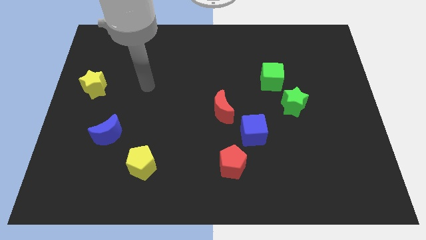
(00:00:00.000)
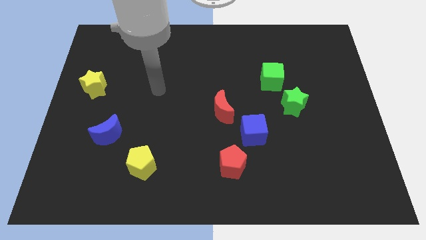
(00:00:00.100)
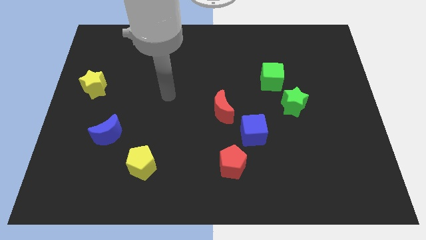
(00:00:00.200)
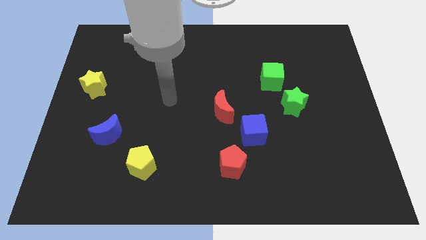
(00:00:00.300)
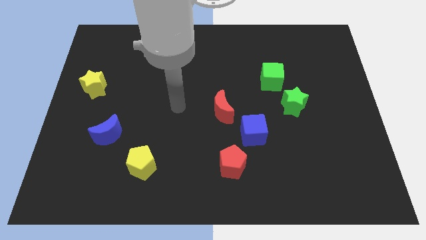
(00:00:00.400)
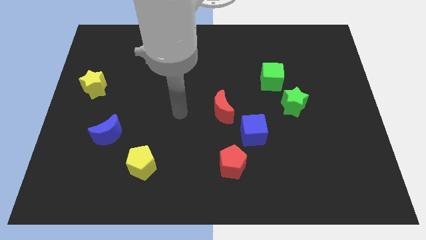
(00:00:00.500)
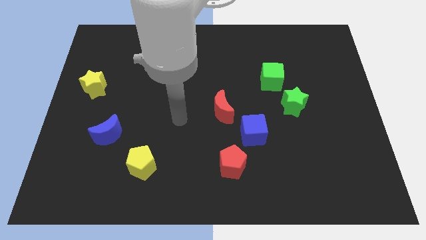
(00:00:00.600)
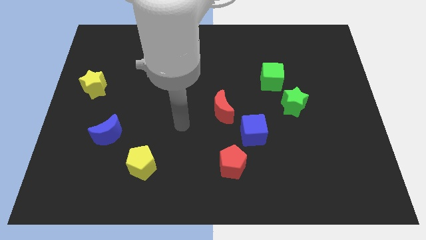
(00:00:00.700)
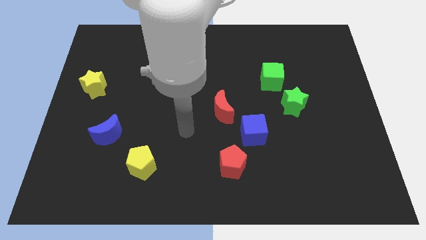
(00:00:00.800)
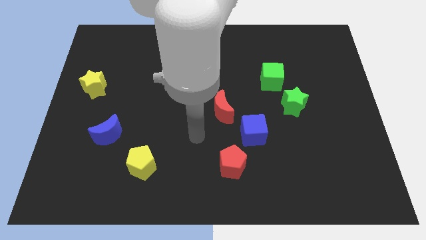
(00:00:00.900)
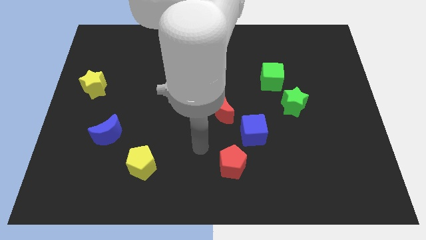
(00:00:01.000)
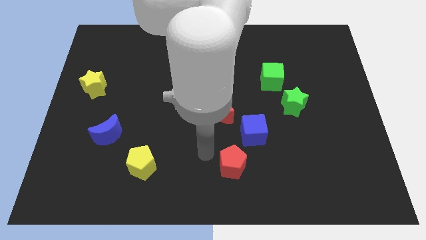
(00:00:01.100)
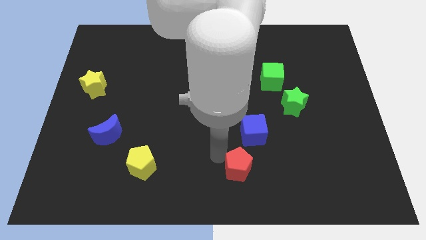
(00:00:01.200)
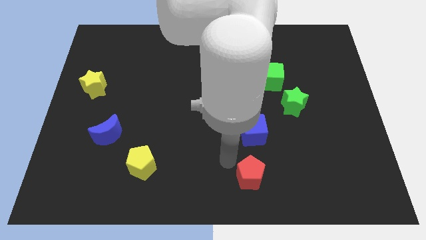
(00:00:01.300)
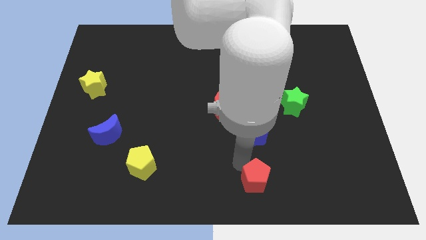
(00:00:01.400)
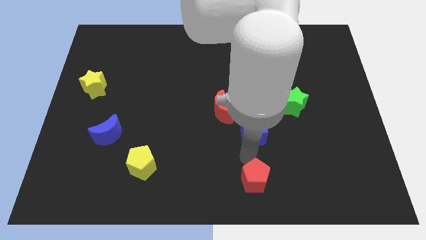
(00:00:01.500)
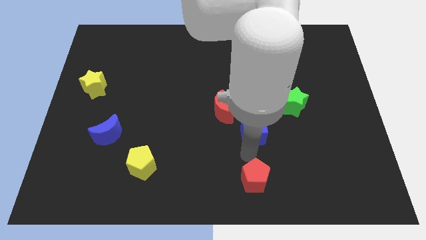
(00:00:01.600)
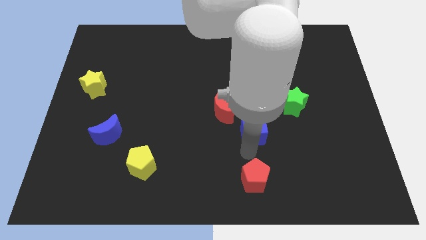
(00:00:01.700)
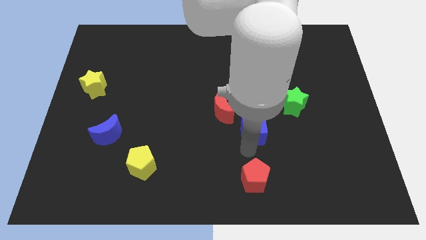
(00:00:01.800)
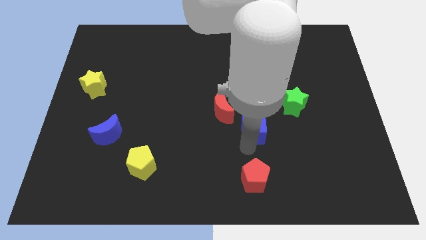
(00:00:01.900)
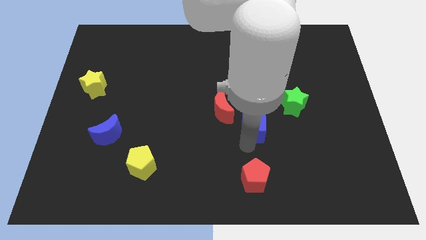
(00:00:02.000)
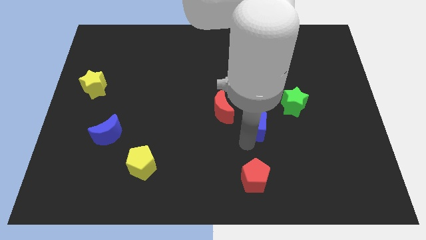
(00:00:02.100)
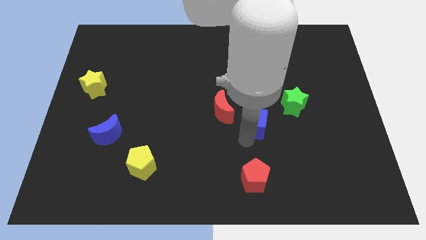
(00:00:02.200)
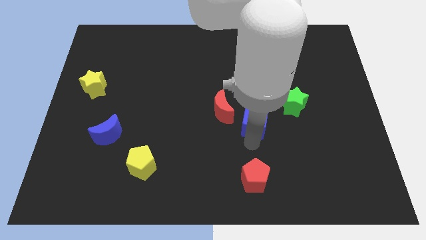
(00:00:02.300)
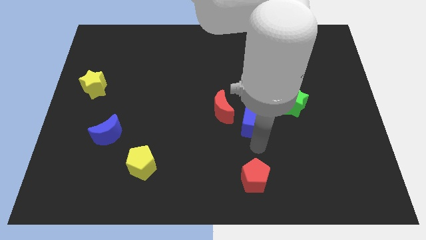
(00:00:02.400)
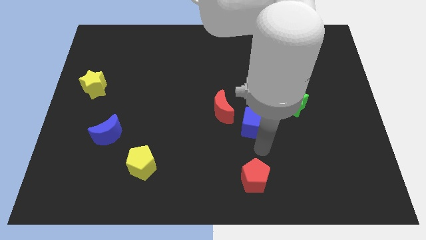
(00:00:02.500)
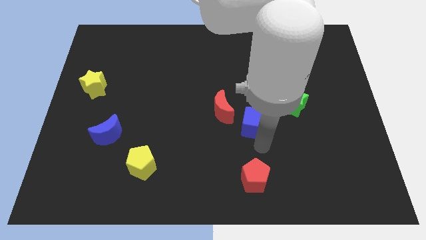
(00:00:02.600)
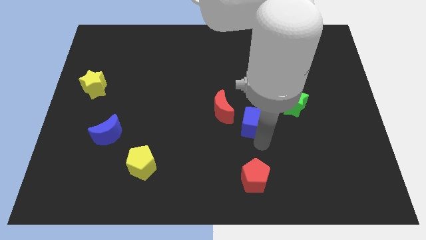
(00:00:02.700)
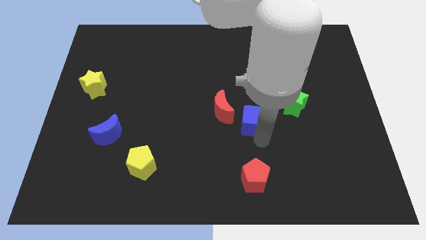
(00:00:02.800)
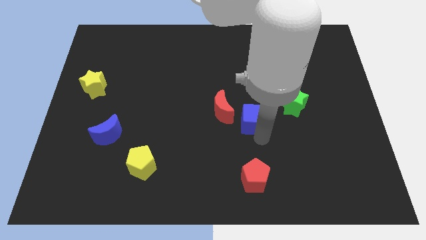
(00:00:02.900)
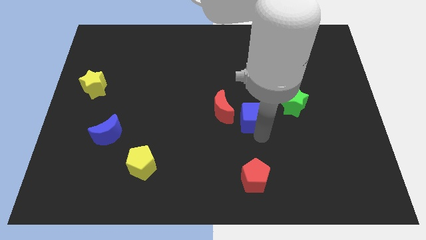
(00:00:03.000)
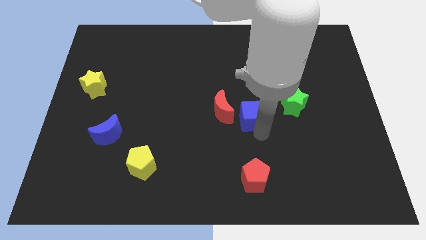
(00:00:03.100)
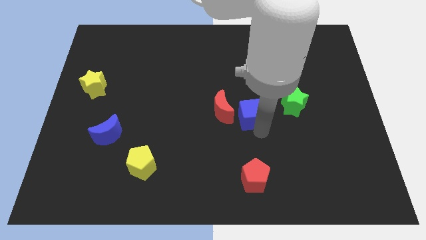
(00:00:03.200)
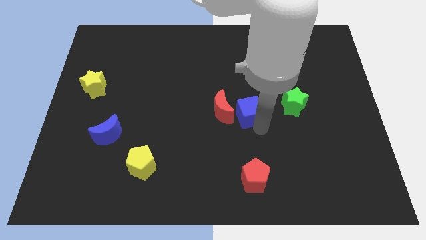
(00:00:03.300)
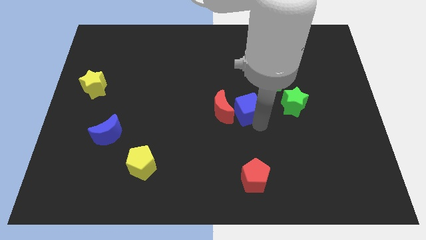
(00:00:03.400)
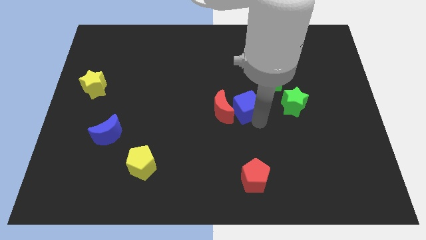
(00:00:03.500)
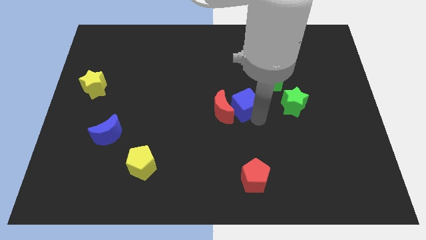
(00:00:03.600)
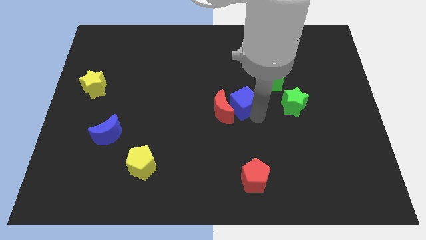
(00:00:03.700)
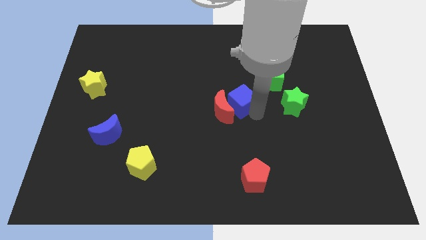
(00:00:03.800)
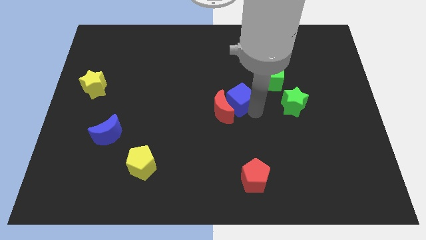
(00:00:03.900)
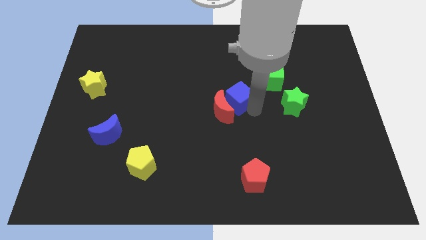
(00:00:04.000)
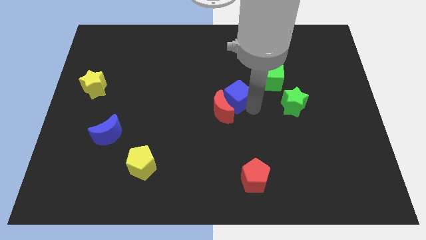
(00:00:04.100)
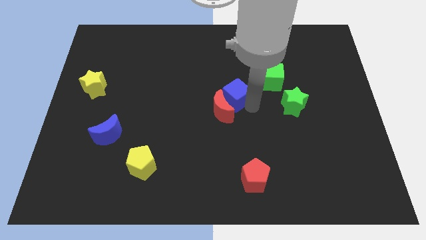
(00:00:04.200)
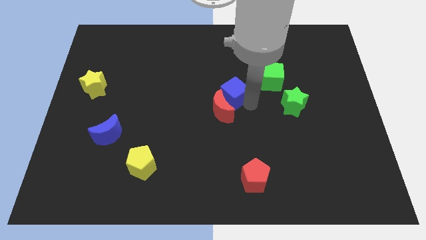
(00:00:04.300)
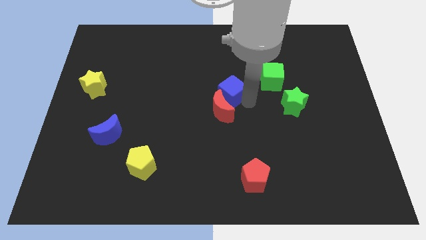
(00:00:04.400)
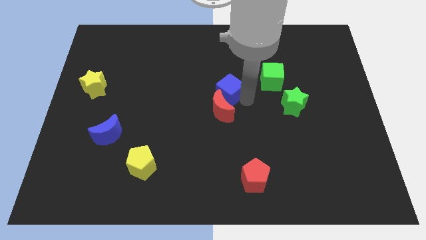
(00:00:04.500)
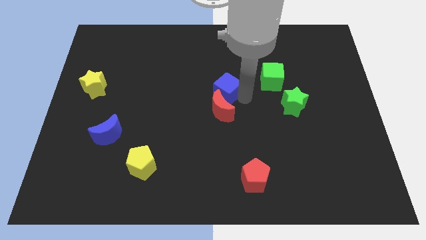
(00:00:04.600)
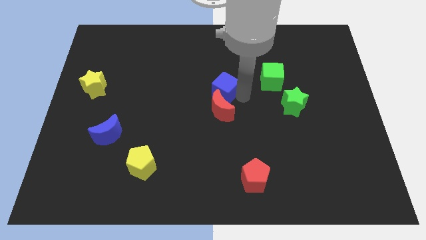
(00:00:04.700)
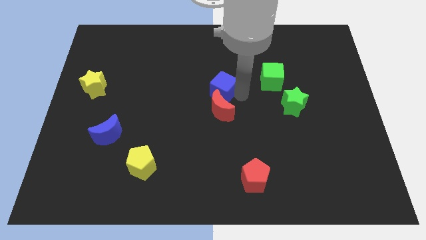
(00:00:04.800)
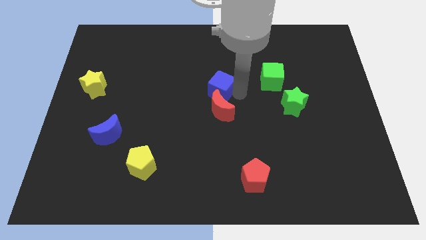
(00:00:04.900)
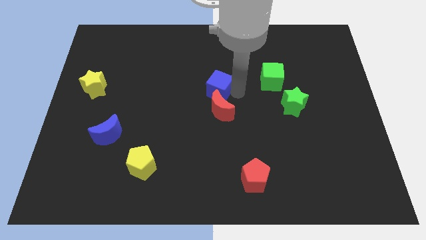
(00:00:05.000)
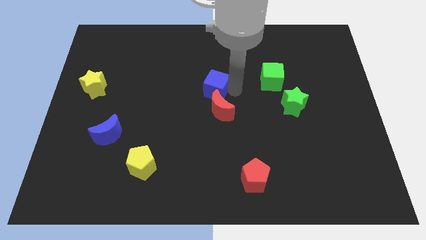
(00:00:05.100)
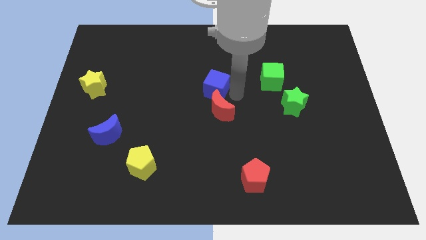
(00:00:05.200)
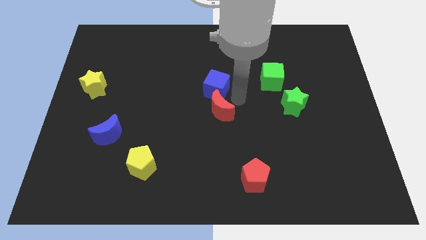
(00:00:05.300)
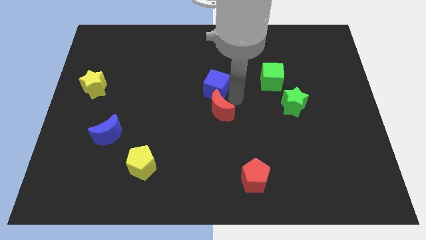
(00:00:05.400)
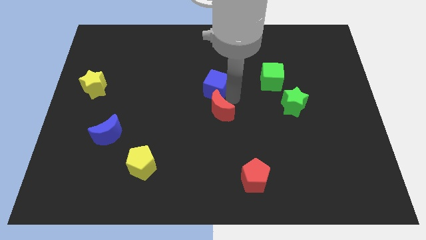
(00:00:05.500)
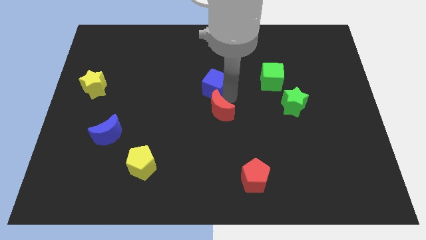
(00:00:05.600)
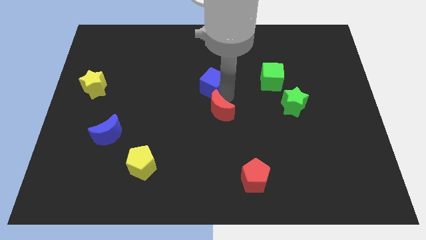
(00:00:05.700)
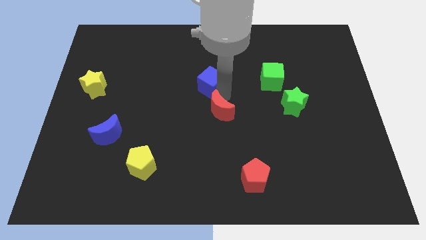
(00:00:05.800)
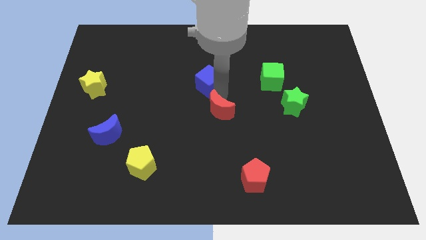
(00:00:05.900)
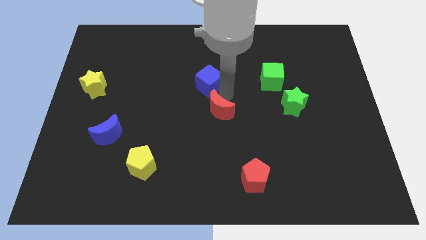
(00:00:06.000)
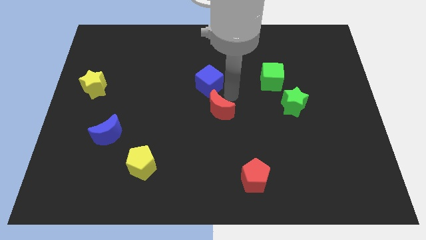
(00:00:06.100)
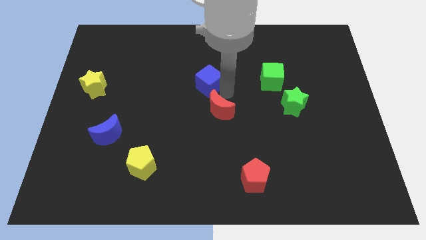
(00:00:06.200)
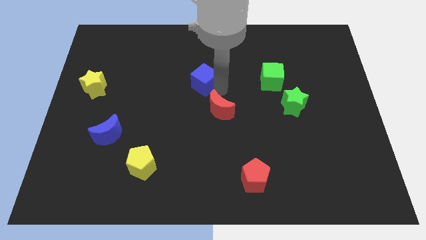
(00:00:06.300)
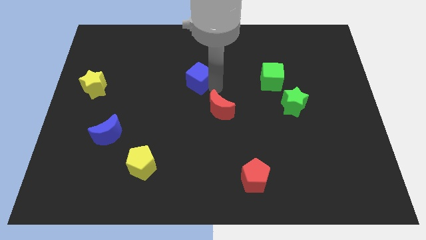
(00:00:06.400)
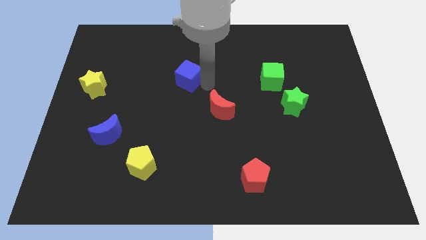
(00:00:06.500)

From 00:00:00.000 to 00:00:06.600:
slide the blue cube upwards and to the left diagonally

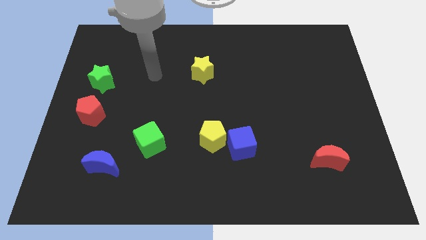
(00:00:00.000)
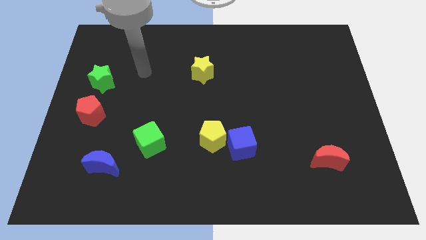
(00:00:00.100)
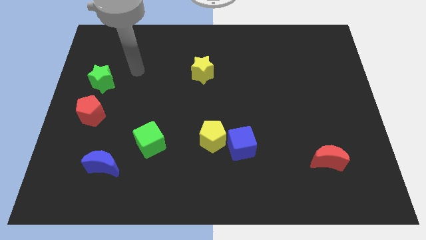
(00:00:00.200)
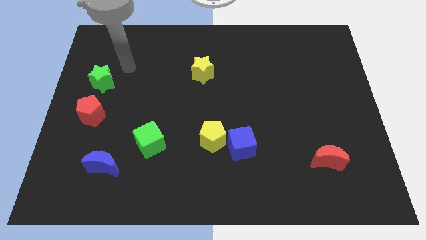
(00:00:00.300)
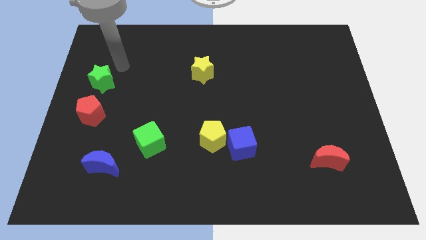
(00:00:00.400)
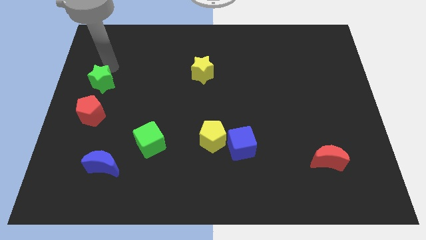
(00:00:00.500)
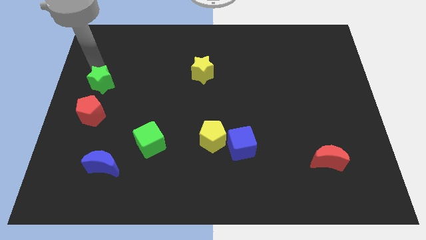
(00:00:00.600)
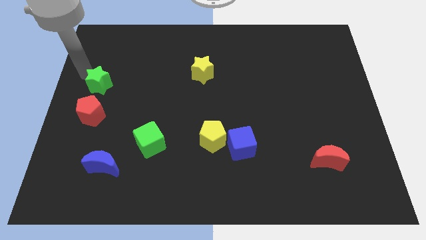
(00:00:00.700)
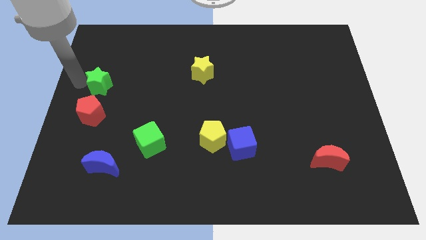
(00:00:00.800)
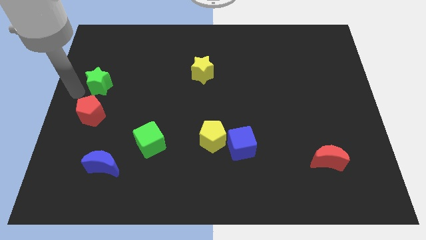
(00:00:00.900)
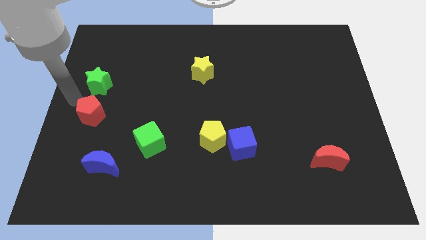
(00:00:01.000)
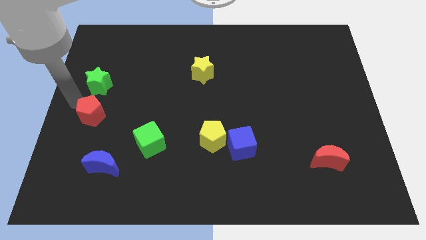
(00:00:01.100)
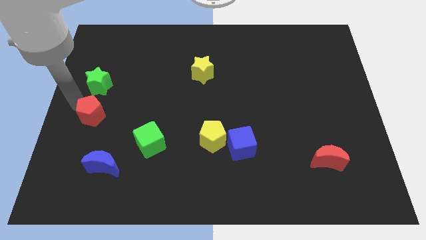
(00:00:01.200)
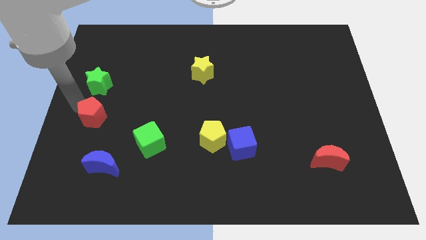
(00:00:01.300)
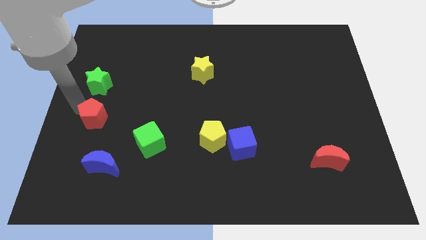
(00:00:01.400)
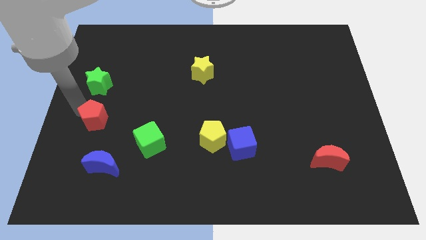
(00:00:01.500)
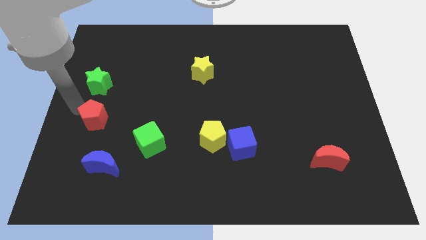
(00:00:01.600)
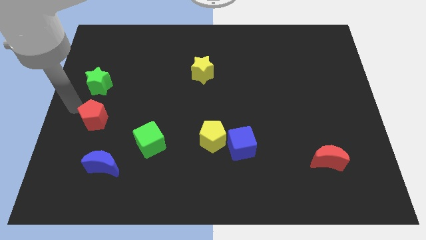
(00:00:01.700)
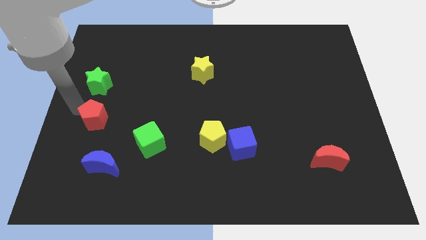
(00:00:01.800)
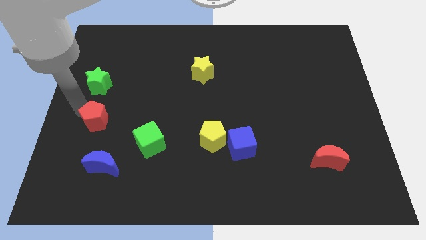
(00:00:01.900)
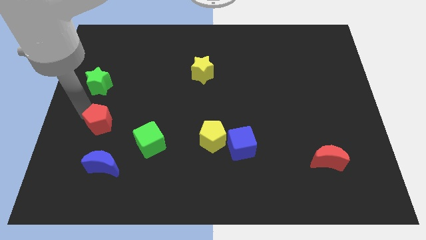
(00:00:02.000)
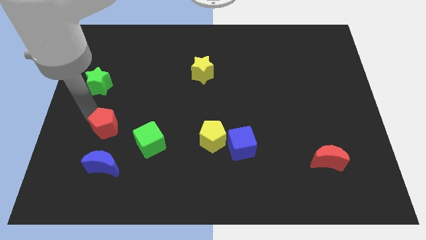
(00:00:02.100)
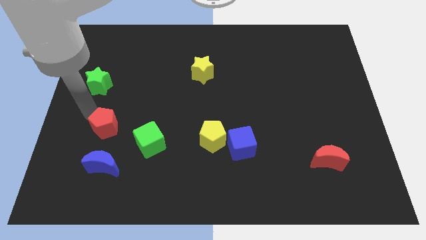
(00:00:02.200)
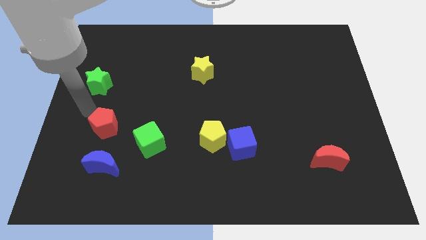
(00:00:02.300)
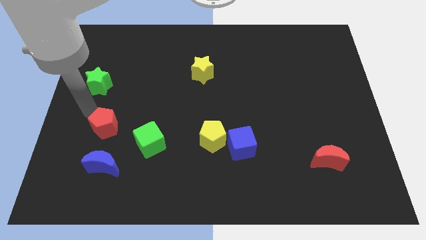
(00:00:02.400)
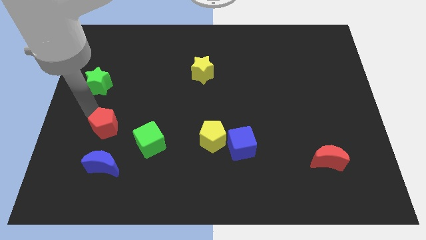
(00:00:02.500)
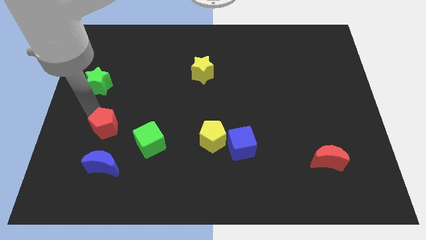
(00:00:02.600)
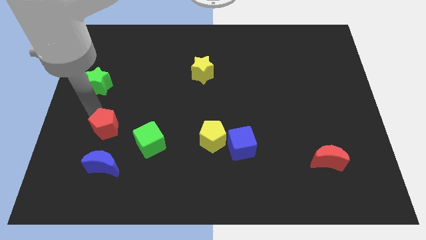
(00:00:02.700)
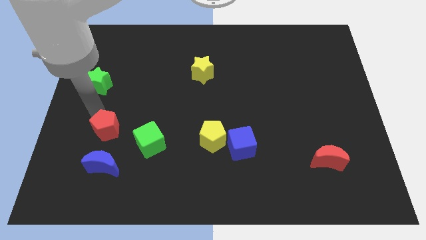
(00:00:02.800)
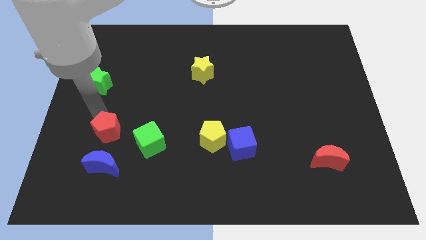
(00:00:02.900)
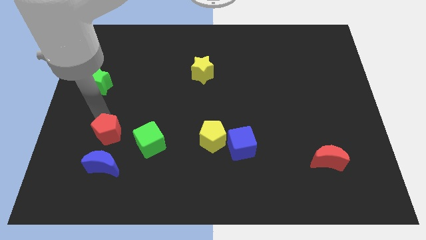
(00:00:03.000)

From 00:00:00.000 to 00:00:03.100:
slide the red pentagon a little down and to the right diagonally
